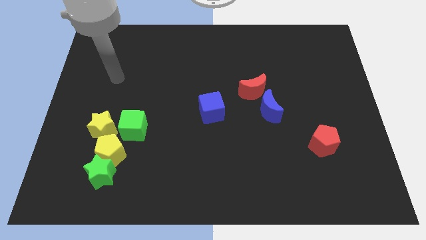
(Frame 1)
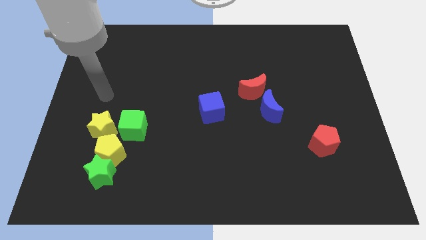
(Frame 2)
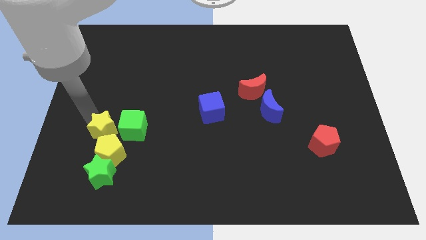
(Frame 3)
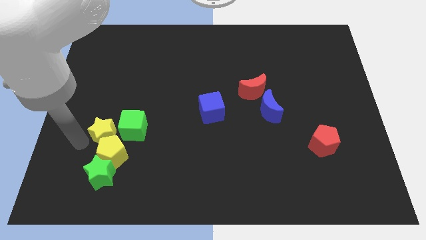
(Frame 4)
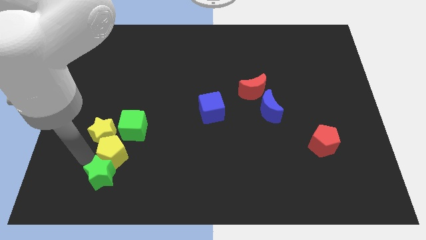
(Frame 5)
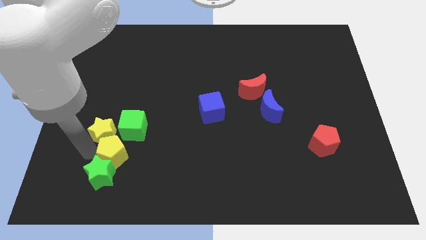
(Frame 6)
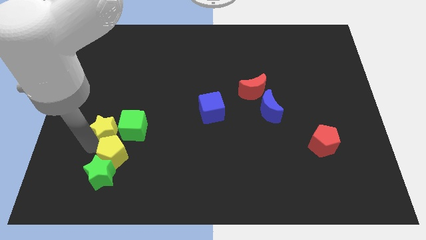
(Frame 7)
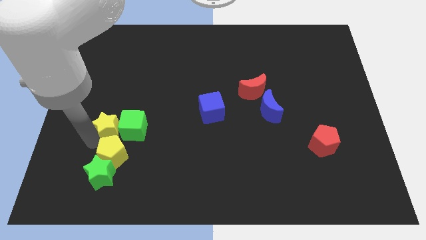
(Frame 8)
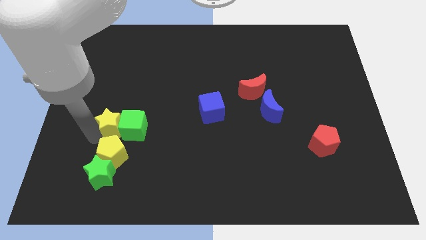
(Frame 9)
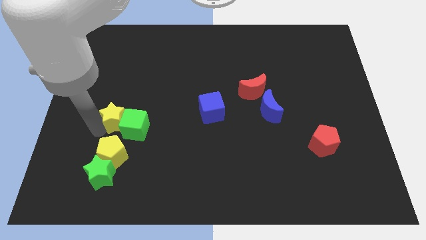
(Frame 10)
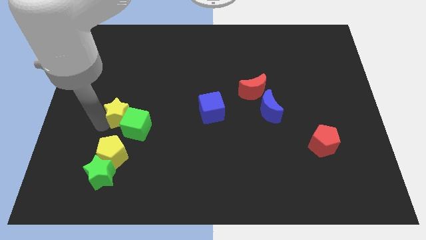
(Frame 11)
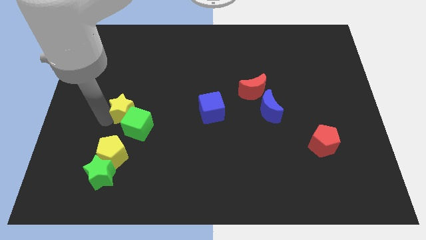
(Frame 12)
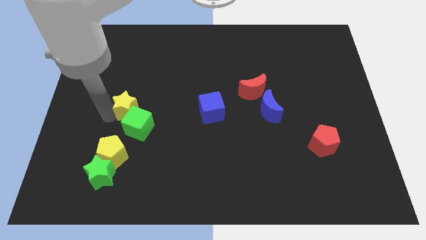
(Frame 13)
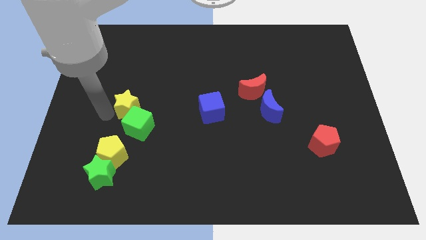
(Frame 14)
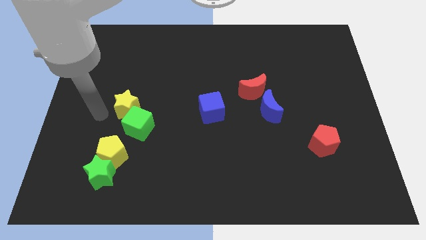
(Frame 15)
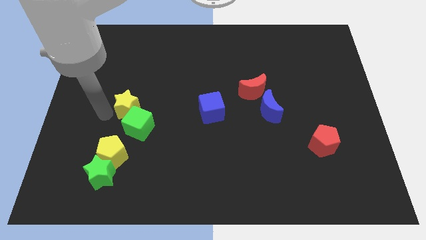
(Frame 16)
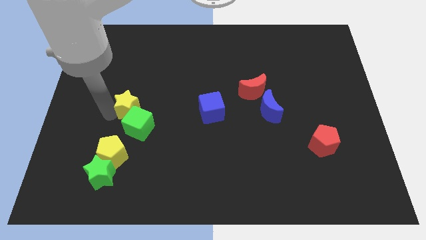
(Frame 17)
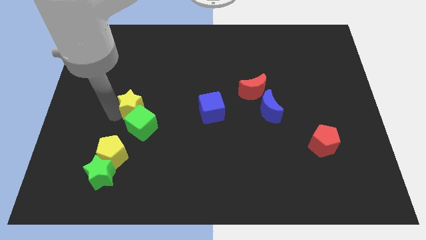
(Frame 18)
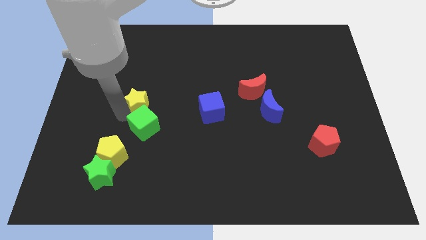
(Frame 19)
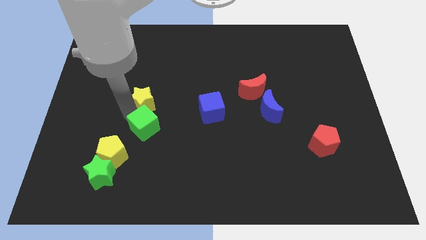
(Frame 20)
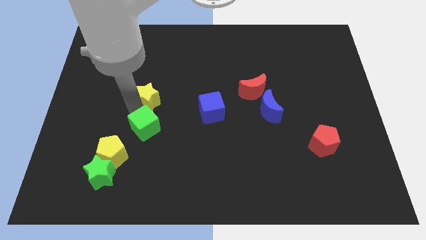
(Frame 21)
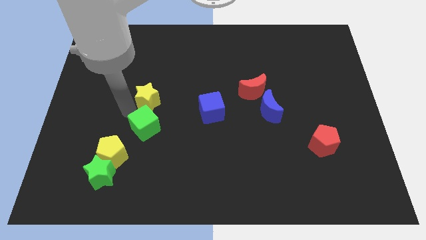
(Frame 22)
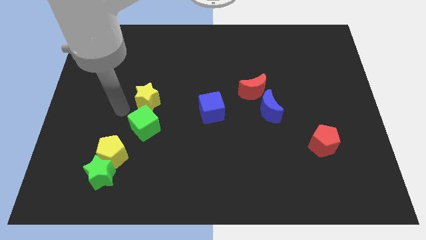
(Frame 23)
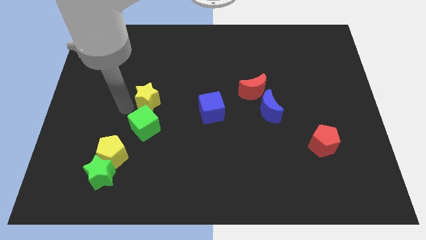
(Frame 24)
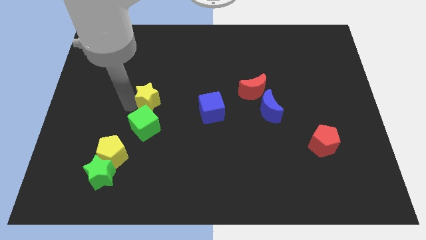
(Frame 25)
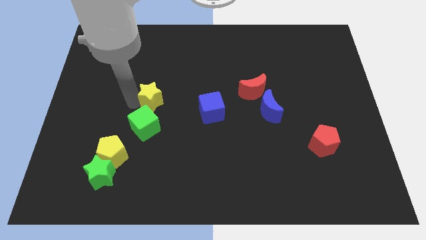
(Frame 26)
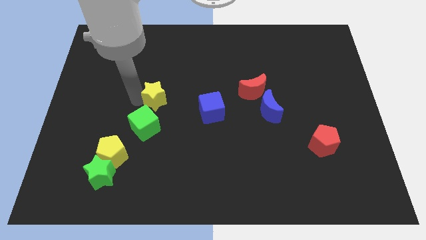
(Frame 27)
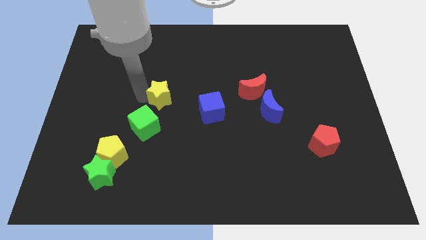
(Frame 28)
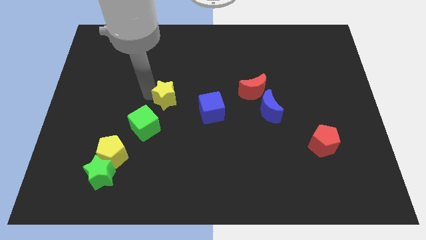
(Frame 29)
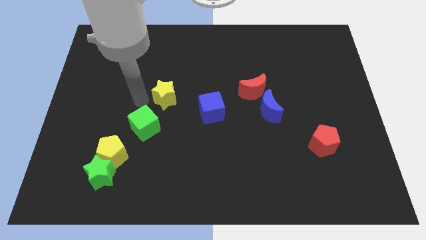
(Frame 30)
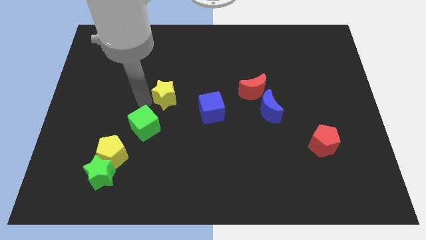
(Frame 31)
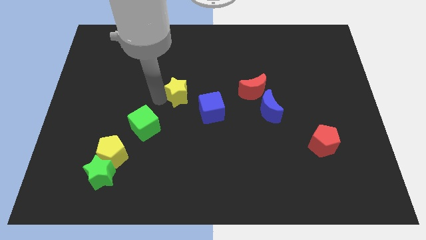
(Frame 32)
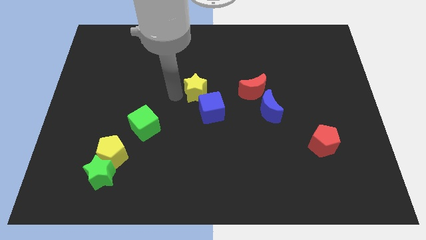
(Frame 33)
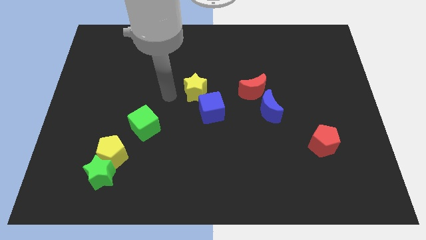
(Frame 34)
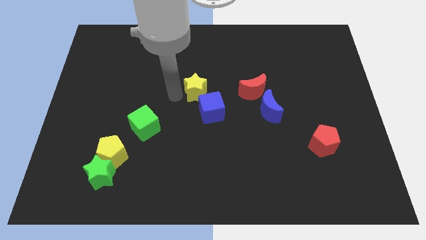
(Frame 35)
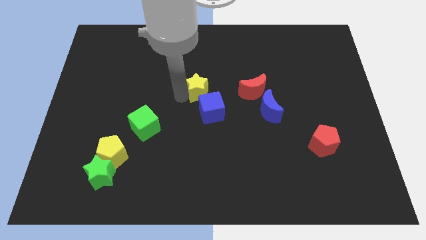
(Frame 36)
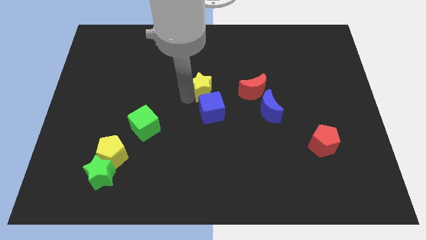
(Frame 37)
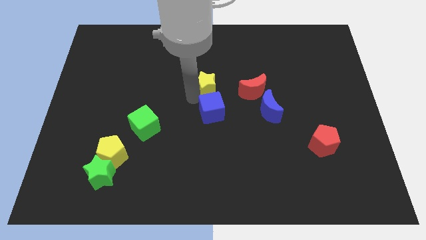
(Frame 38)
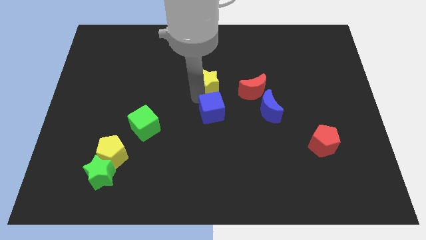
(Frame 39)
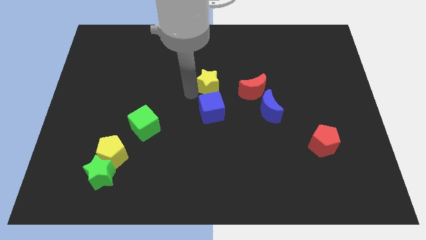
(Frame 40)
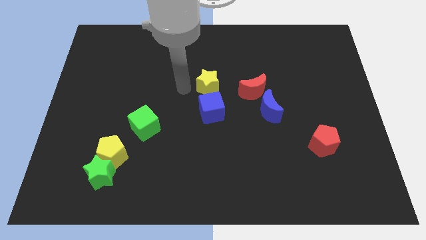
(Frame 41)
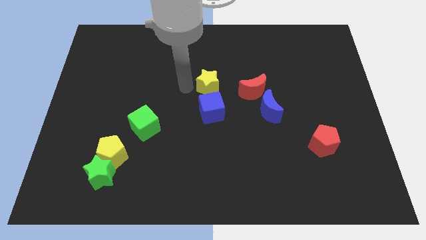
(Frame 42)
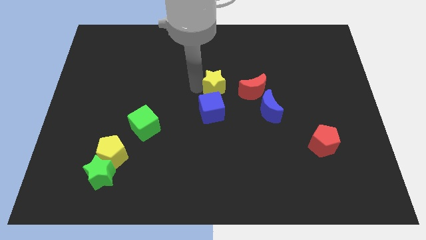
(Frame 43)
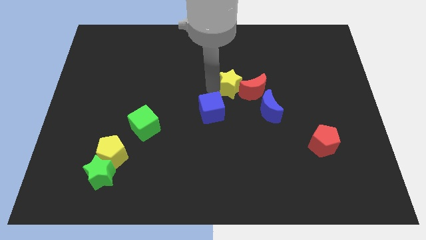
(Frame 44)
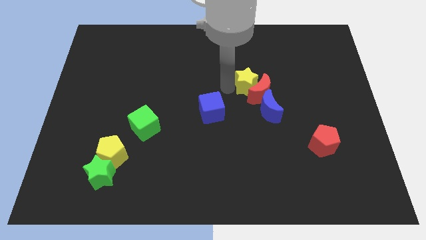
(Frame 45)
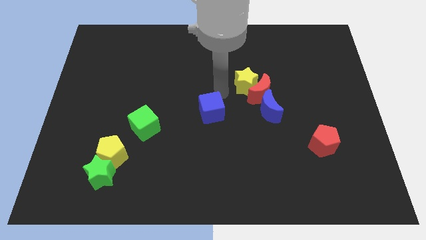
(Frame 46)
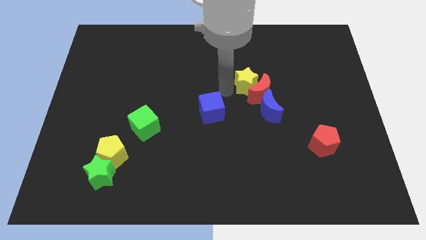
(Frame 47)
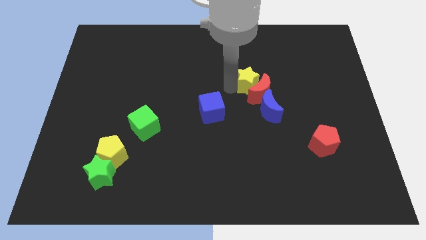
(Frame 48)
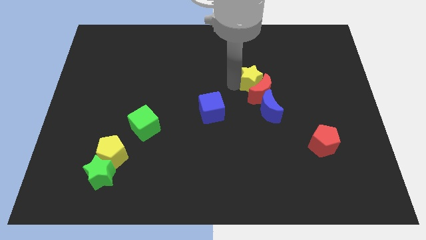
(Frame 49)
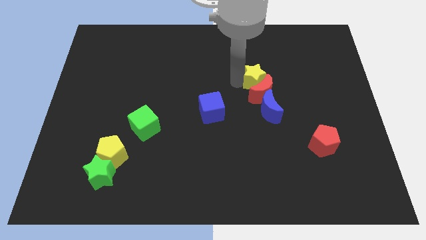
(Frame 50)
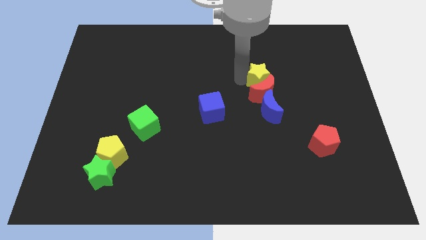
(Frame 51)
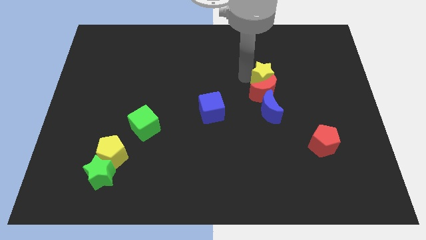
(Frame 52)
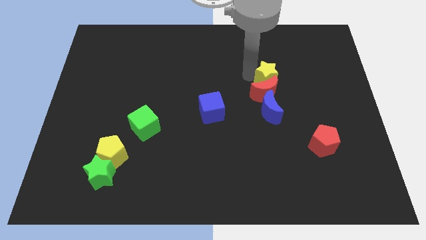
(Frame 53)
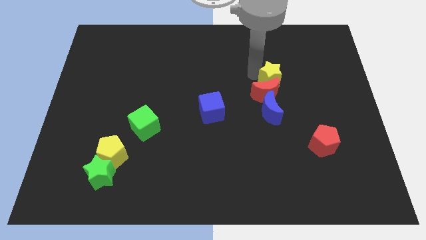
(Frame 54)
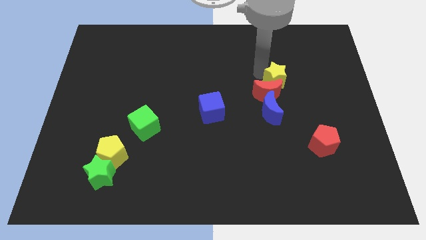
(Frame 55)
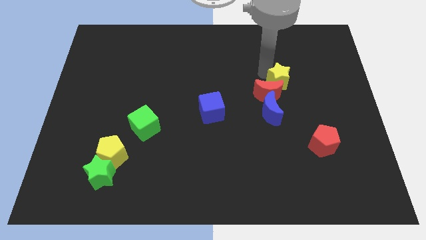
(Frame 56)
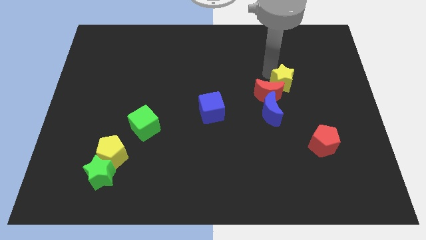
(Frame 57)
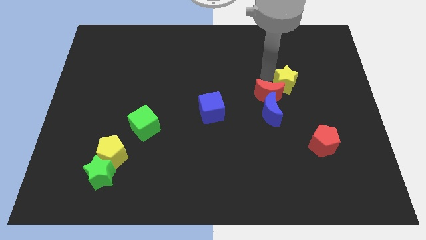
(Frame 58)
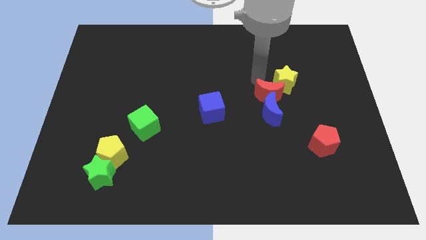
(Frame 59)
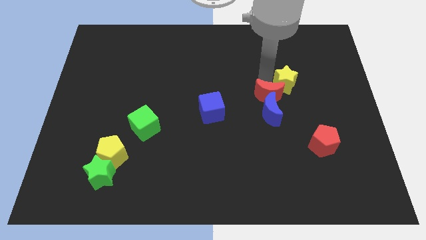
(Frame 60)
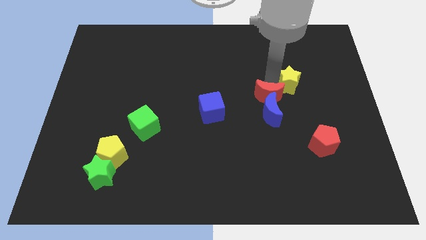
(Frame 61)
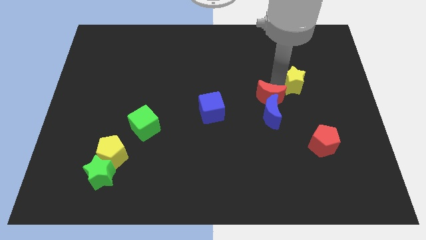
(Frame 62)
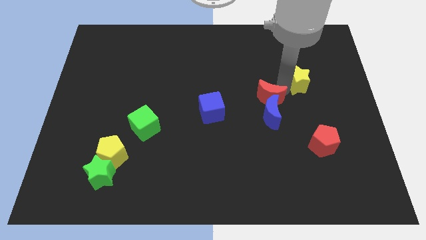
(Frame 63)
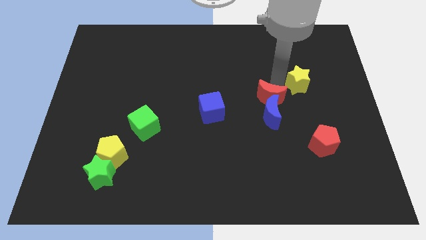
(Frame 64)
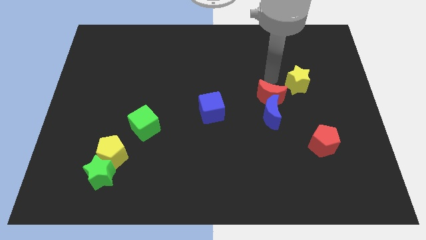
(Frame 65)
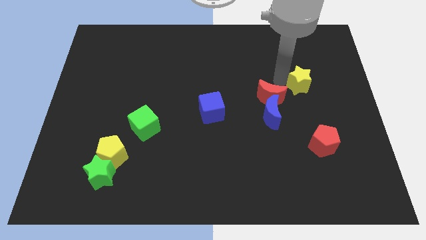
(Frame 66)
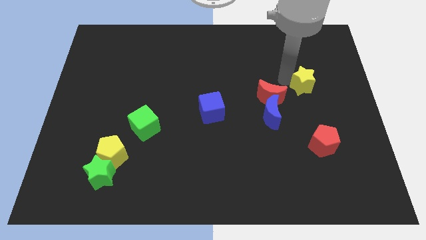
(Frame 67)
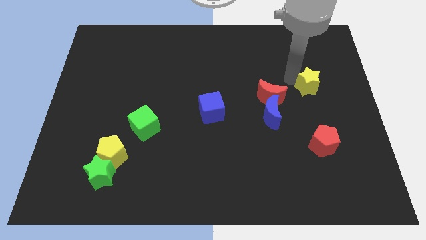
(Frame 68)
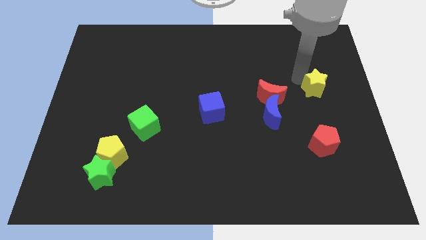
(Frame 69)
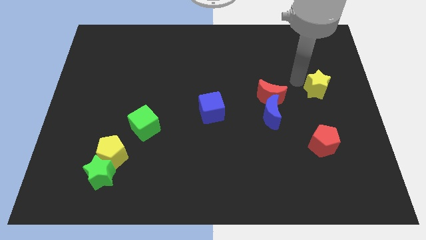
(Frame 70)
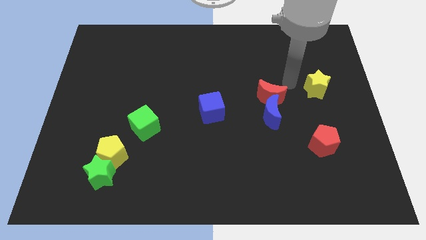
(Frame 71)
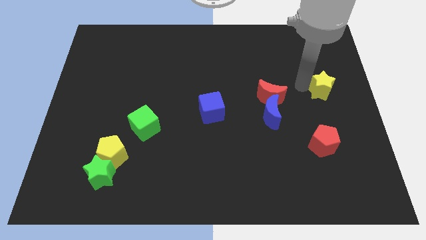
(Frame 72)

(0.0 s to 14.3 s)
move the yellow star to the right side

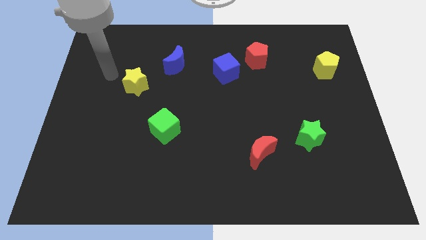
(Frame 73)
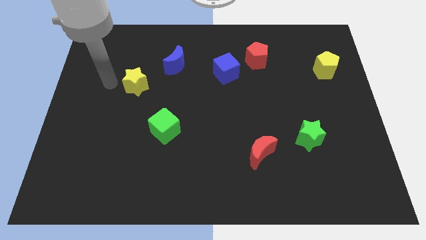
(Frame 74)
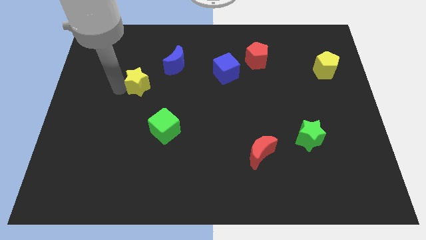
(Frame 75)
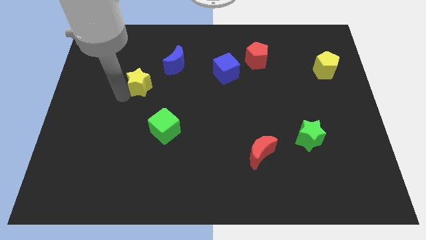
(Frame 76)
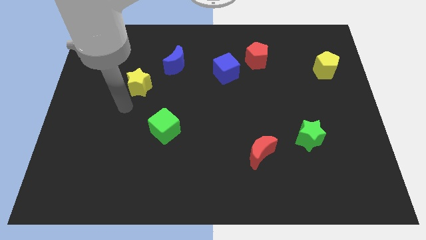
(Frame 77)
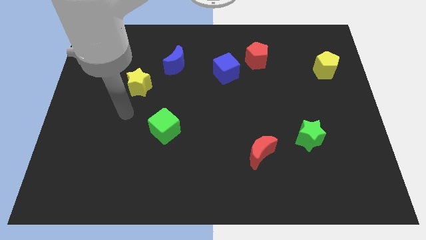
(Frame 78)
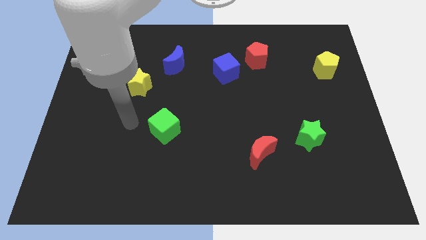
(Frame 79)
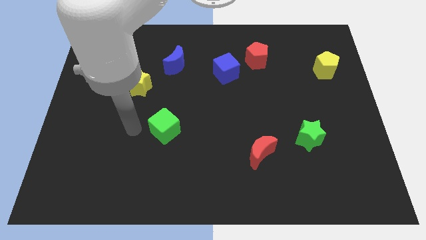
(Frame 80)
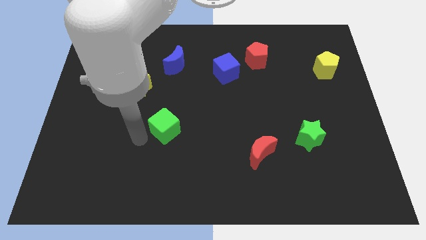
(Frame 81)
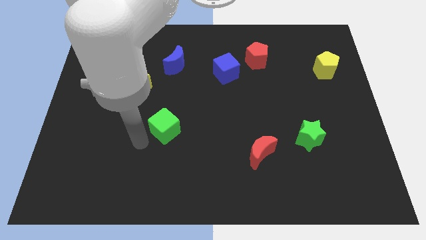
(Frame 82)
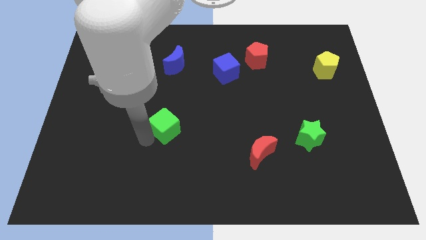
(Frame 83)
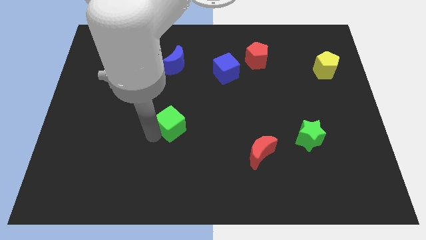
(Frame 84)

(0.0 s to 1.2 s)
push the green cube to the center of the board
